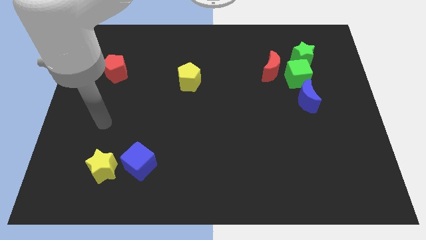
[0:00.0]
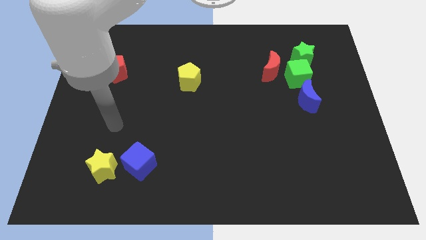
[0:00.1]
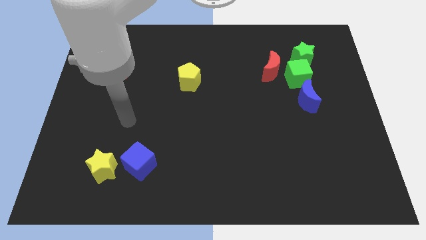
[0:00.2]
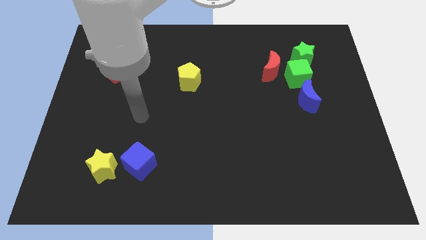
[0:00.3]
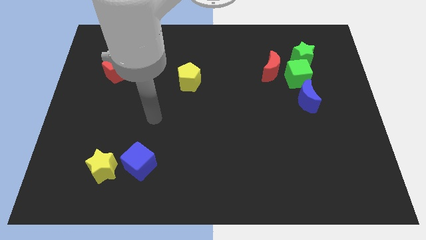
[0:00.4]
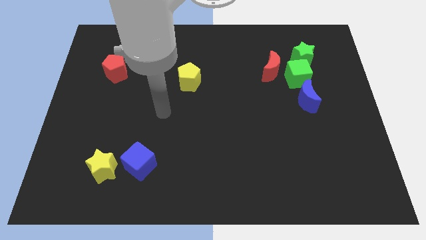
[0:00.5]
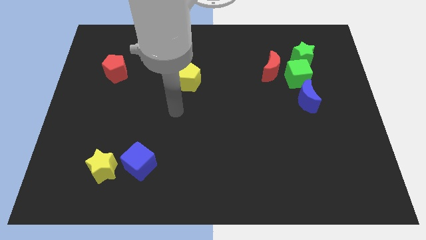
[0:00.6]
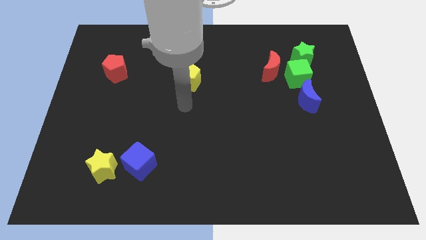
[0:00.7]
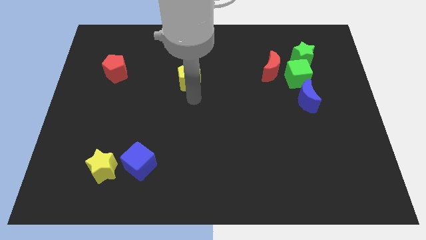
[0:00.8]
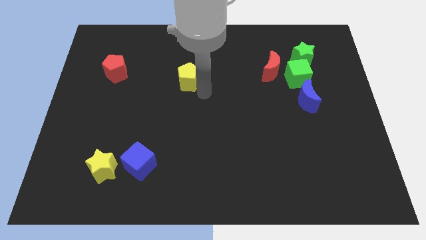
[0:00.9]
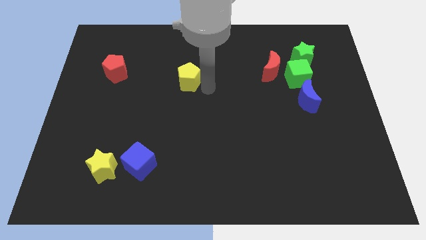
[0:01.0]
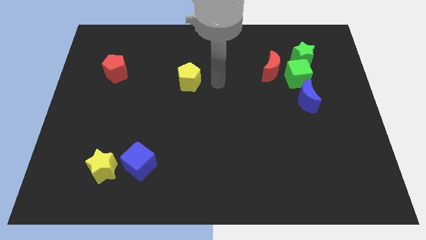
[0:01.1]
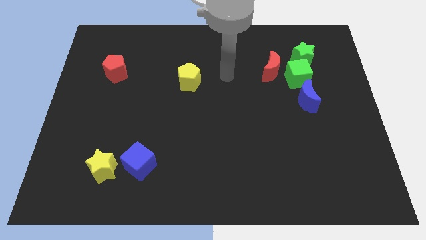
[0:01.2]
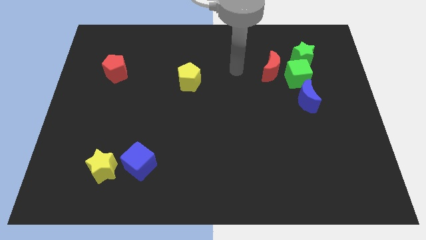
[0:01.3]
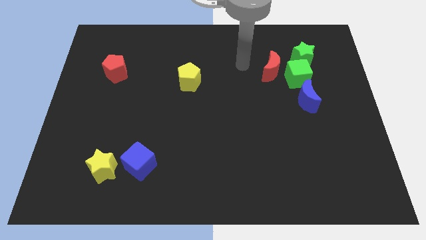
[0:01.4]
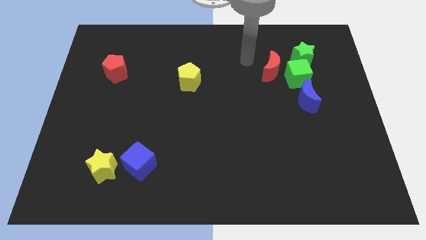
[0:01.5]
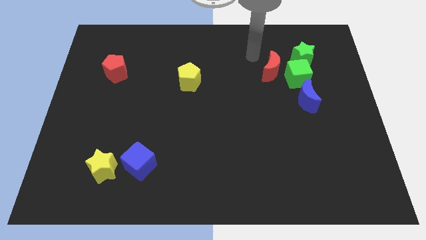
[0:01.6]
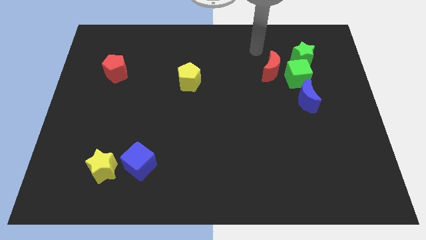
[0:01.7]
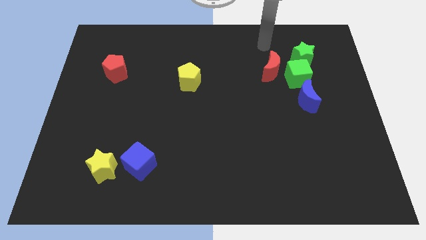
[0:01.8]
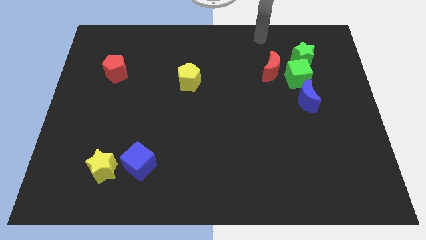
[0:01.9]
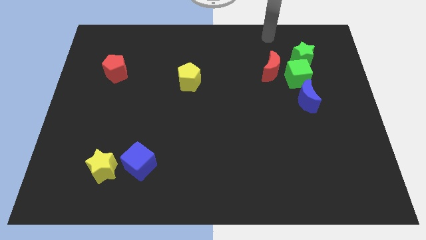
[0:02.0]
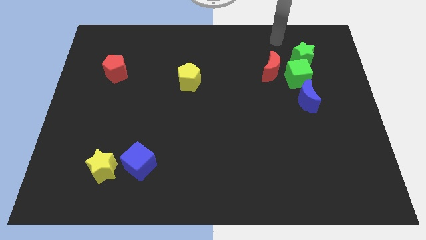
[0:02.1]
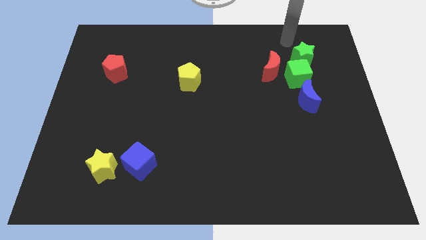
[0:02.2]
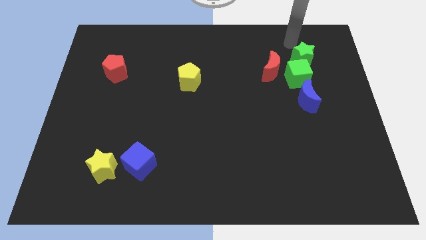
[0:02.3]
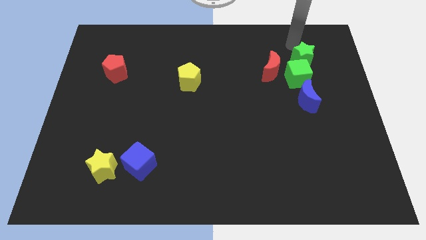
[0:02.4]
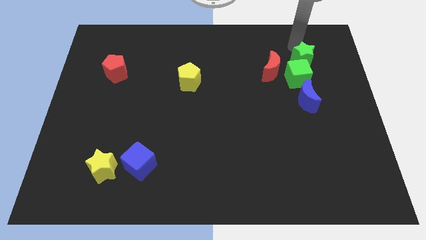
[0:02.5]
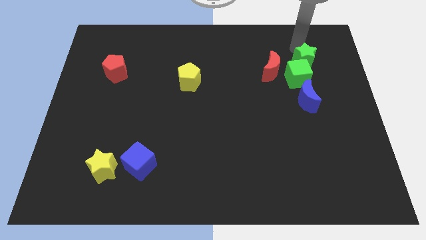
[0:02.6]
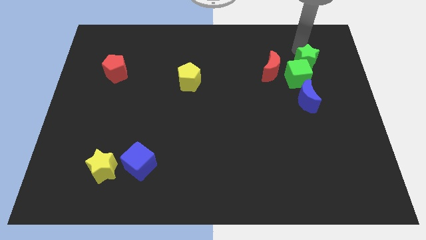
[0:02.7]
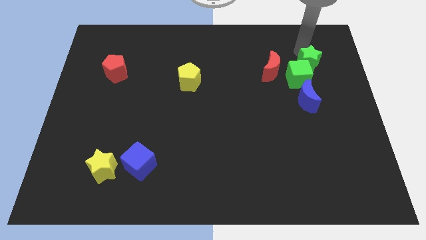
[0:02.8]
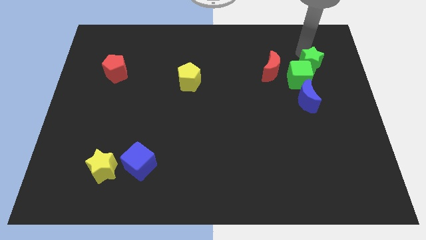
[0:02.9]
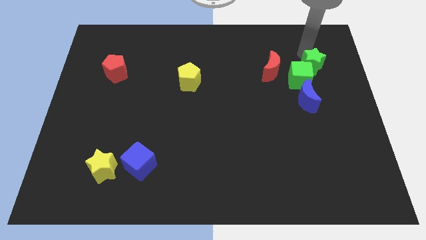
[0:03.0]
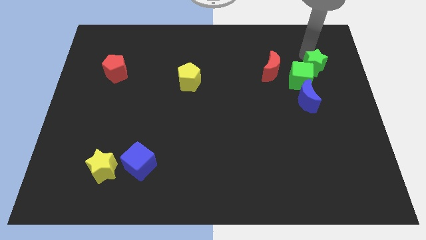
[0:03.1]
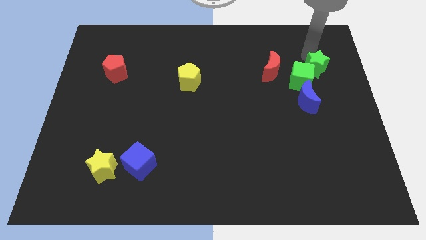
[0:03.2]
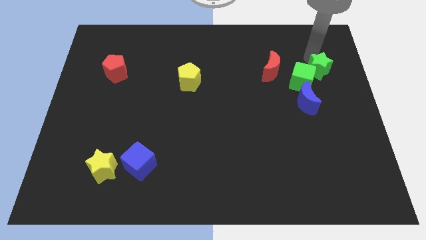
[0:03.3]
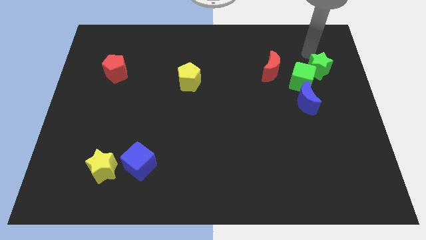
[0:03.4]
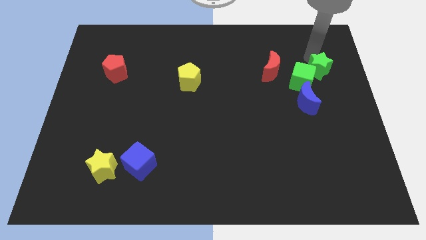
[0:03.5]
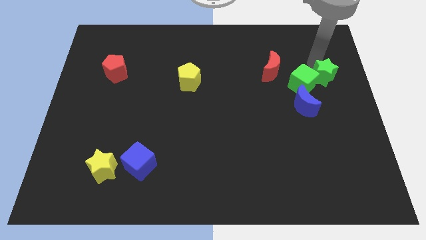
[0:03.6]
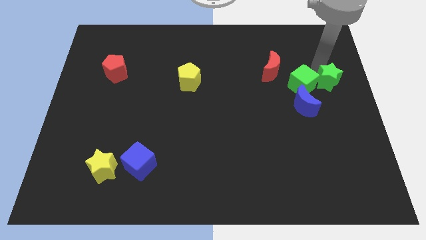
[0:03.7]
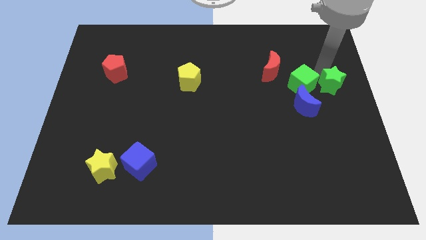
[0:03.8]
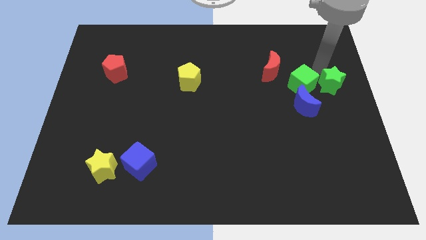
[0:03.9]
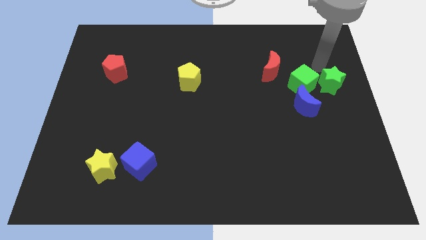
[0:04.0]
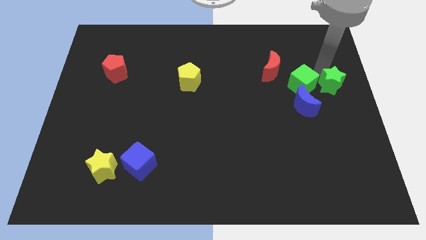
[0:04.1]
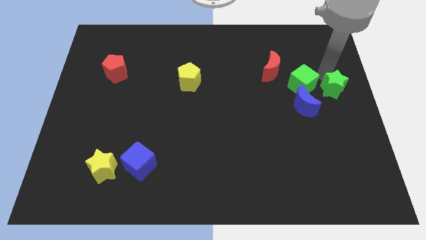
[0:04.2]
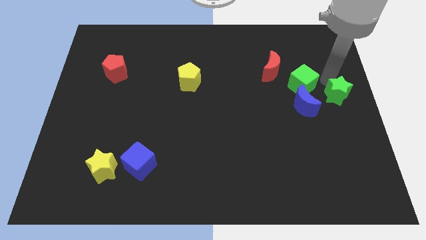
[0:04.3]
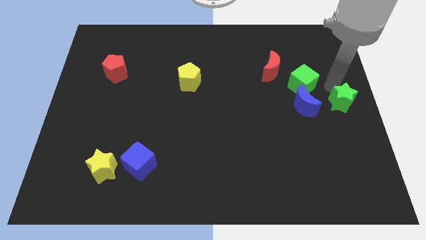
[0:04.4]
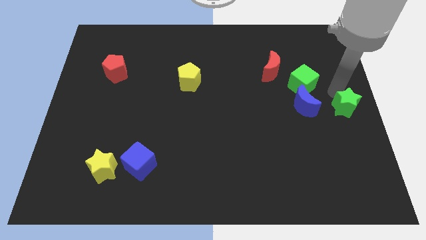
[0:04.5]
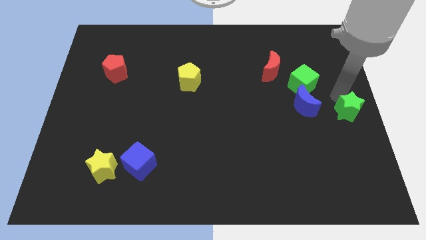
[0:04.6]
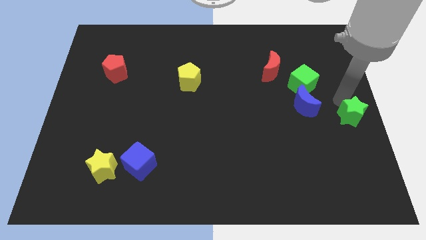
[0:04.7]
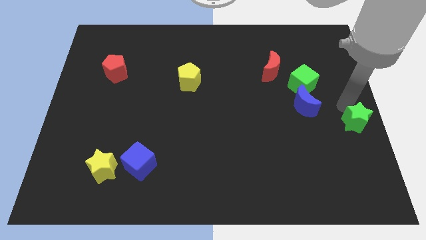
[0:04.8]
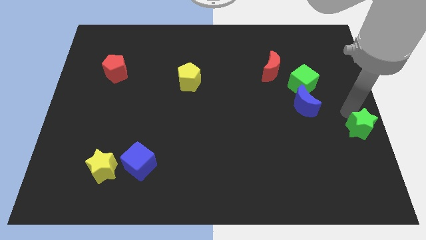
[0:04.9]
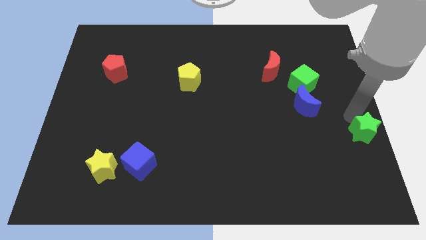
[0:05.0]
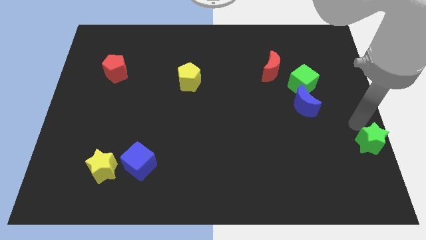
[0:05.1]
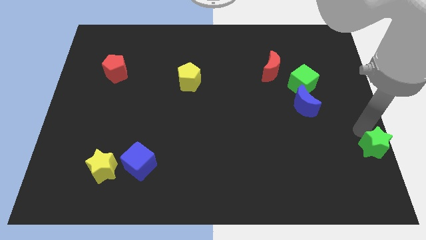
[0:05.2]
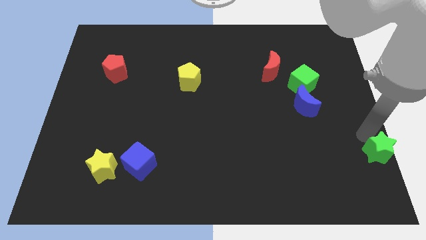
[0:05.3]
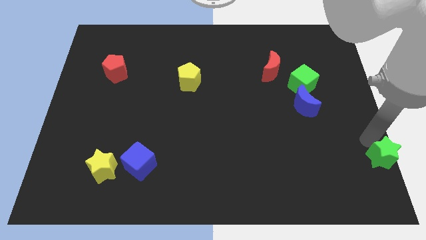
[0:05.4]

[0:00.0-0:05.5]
push the green star to the bottom right of the board

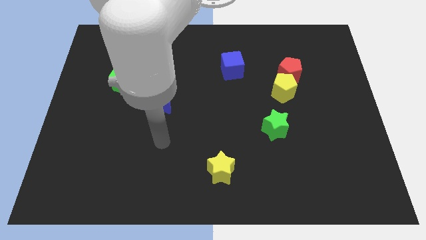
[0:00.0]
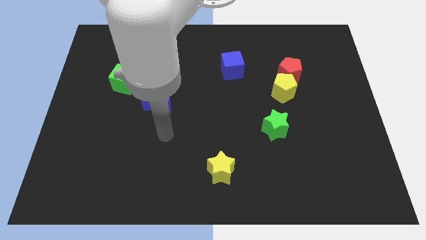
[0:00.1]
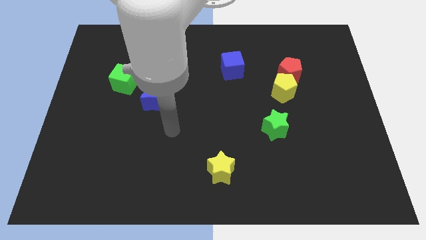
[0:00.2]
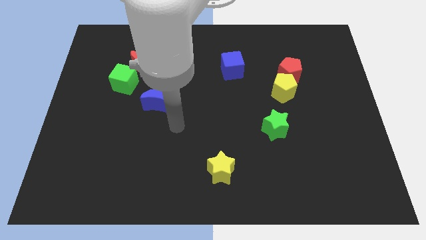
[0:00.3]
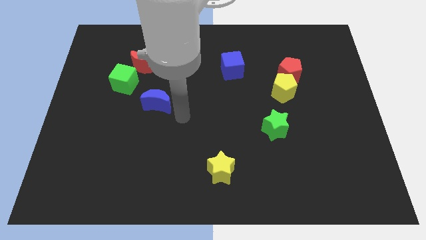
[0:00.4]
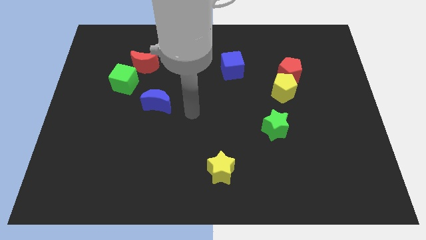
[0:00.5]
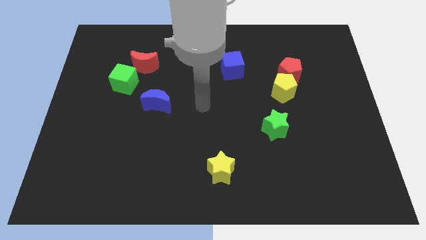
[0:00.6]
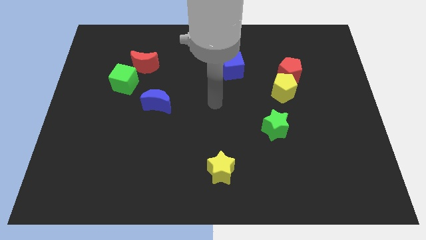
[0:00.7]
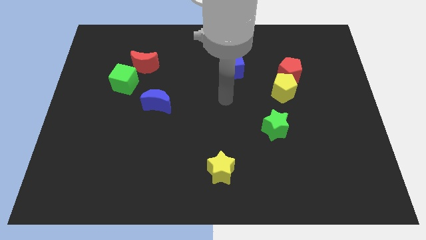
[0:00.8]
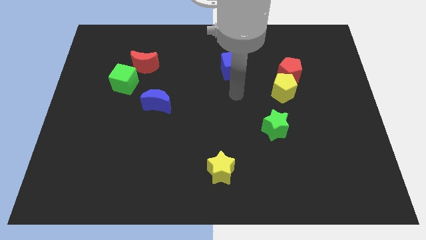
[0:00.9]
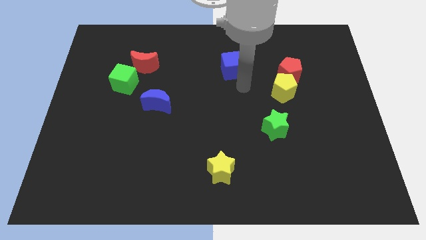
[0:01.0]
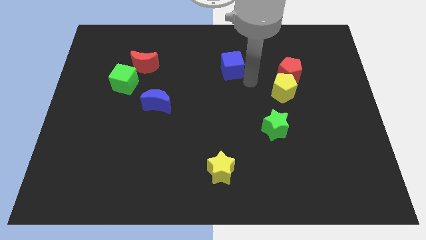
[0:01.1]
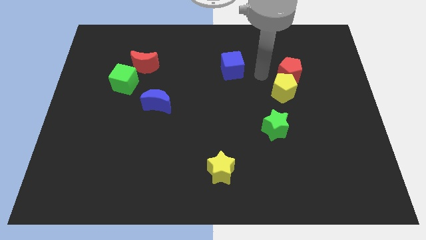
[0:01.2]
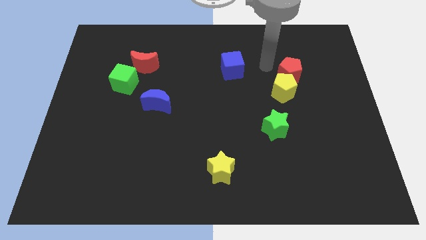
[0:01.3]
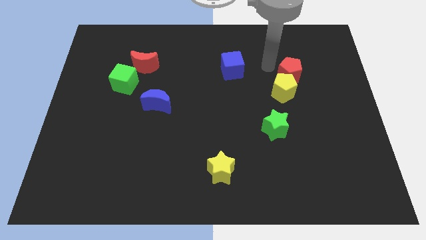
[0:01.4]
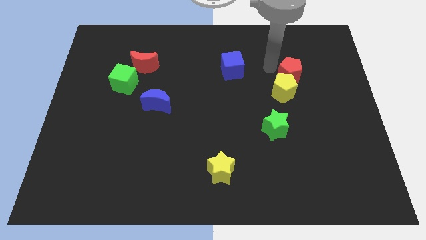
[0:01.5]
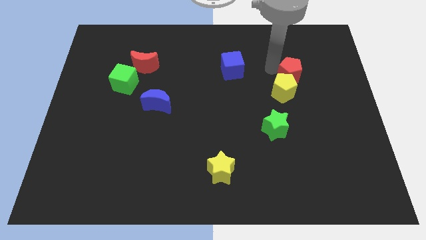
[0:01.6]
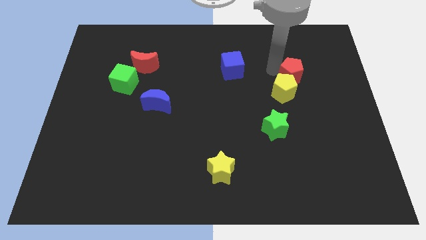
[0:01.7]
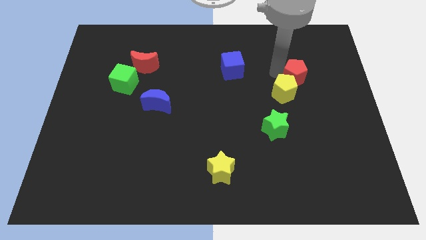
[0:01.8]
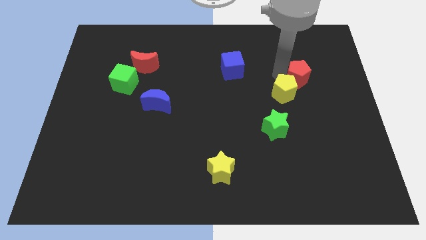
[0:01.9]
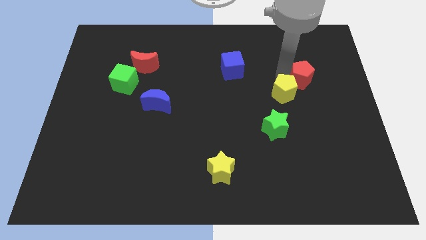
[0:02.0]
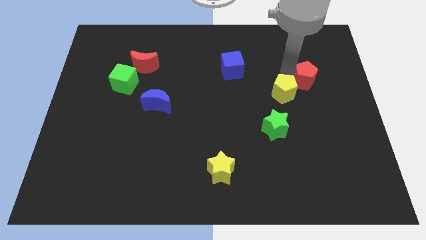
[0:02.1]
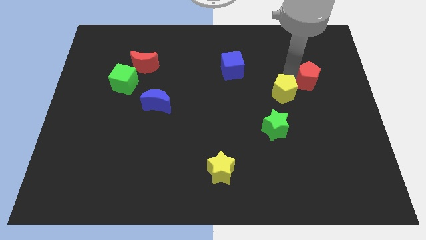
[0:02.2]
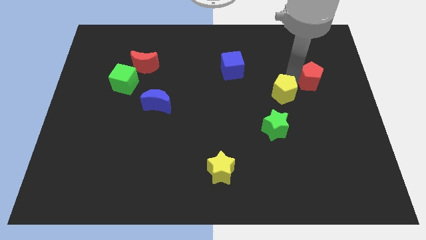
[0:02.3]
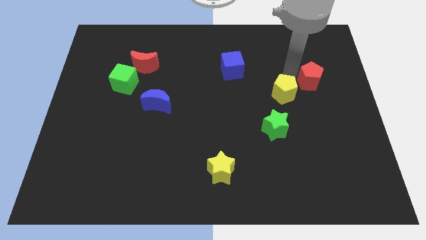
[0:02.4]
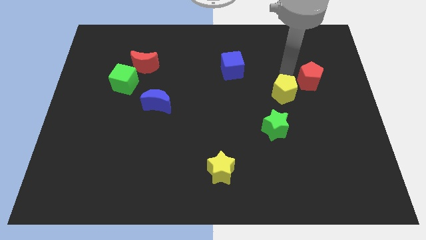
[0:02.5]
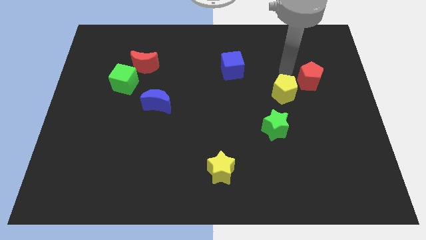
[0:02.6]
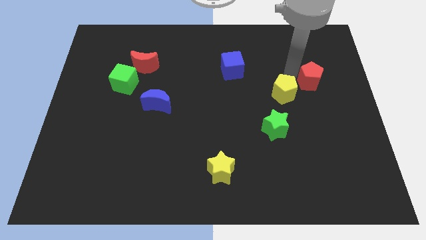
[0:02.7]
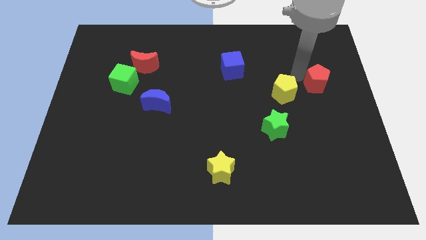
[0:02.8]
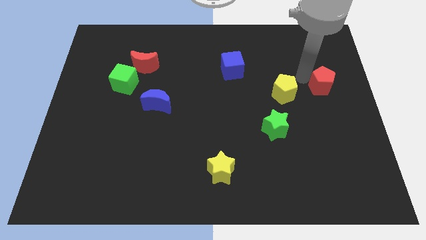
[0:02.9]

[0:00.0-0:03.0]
put the red pentagon to the center right
